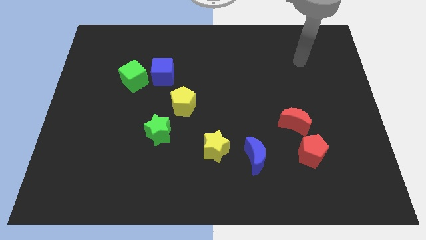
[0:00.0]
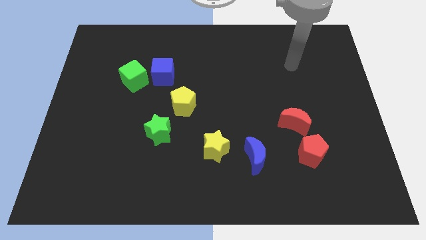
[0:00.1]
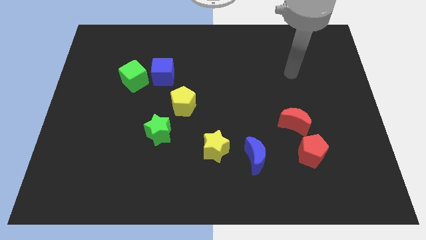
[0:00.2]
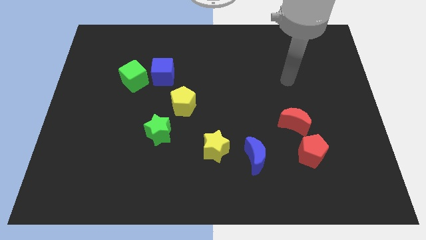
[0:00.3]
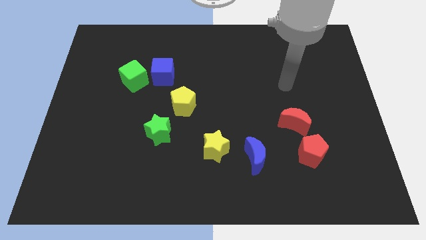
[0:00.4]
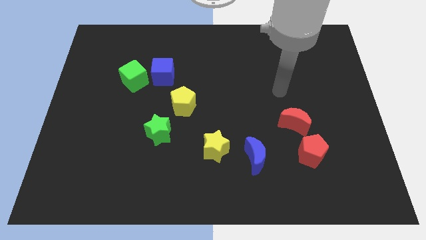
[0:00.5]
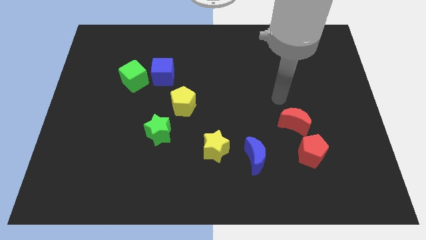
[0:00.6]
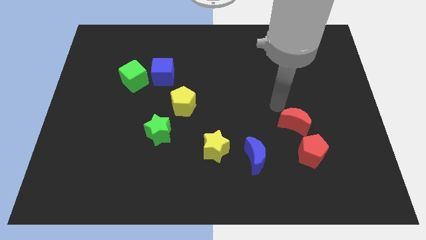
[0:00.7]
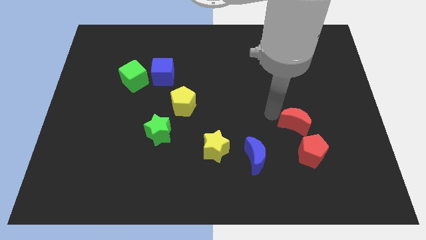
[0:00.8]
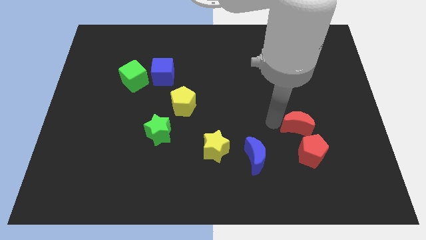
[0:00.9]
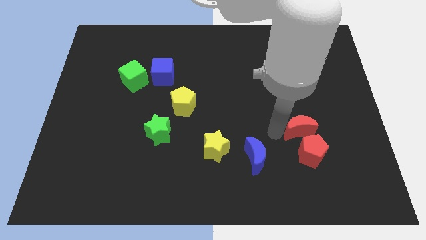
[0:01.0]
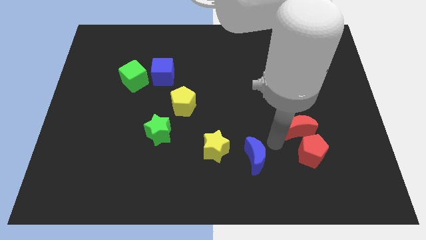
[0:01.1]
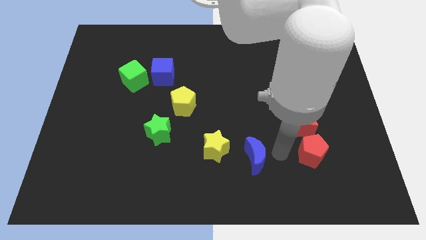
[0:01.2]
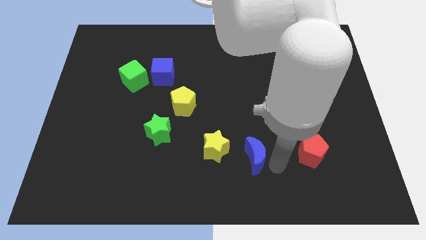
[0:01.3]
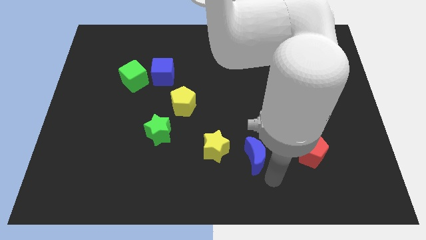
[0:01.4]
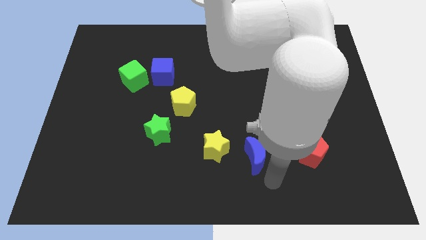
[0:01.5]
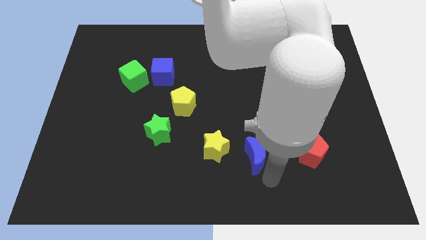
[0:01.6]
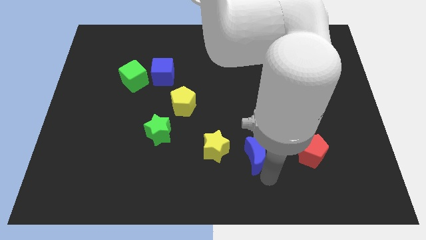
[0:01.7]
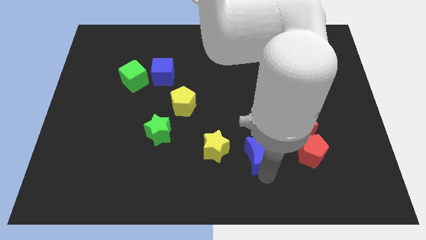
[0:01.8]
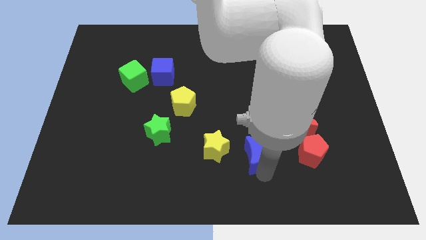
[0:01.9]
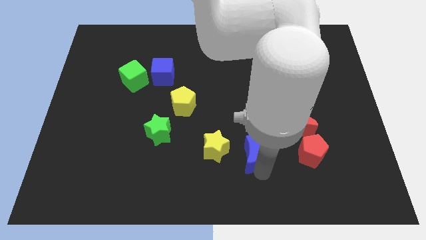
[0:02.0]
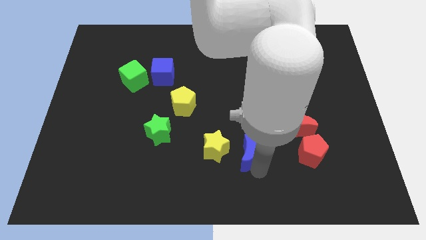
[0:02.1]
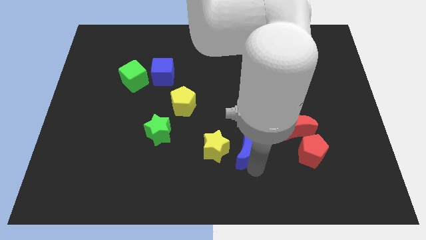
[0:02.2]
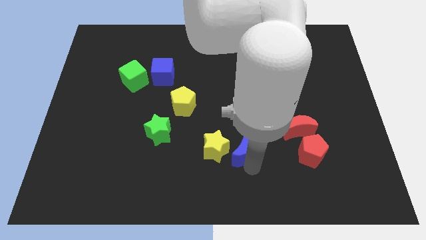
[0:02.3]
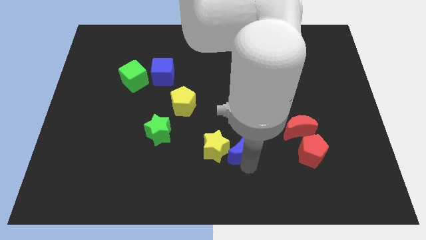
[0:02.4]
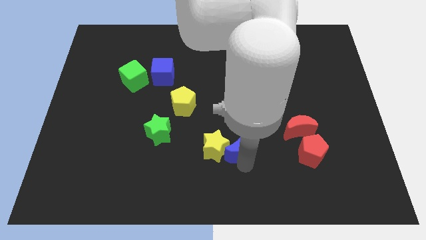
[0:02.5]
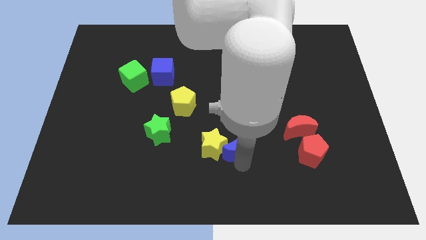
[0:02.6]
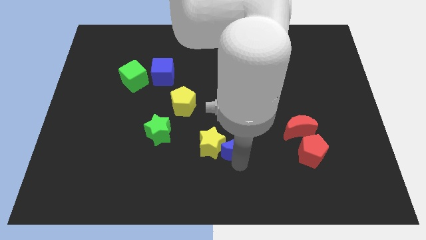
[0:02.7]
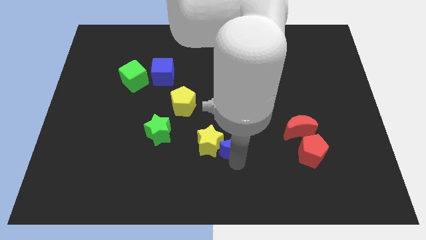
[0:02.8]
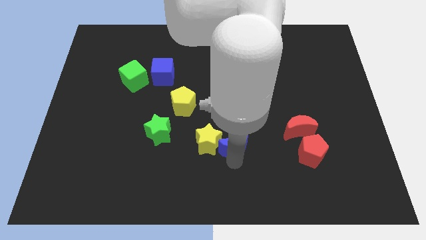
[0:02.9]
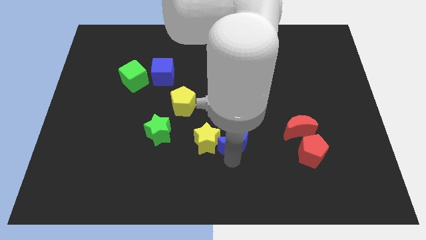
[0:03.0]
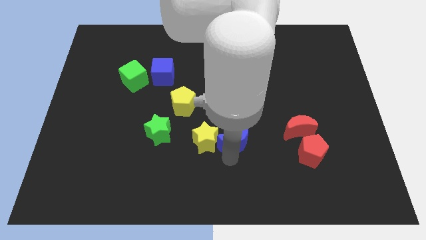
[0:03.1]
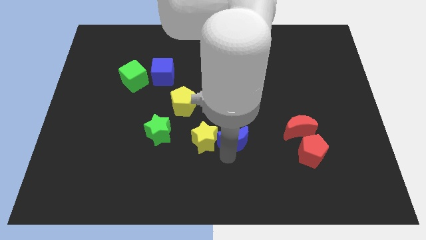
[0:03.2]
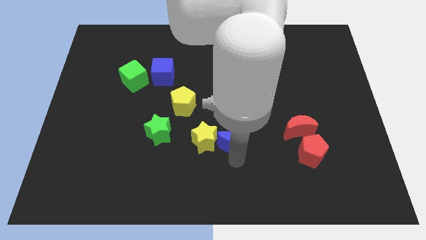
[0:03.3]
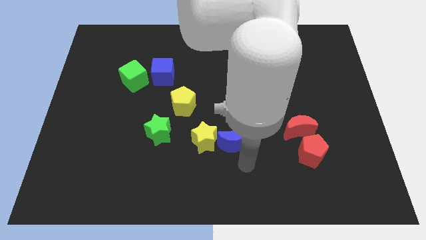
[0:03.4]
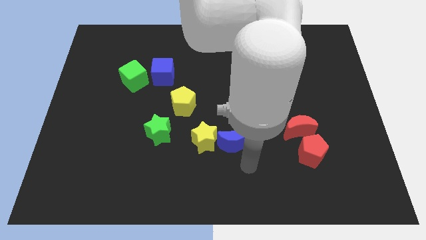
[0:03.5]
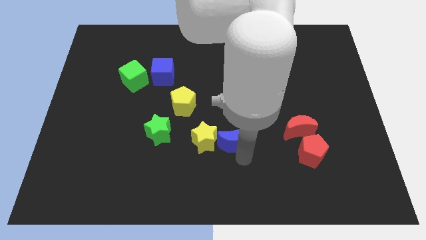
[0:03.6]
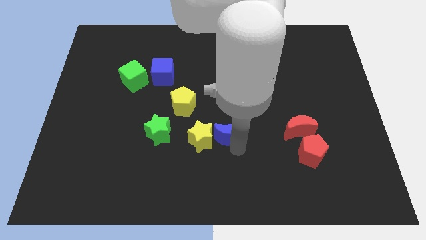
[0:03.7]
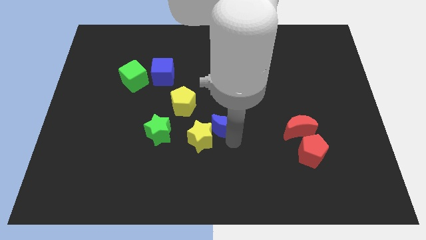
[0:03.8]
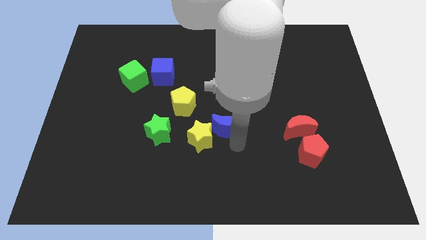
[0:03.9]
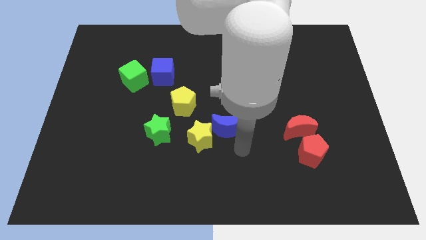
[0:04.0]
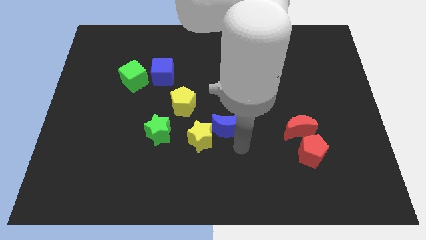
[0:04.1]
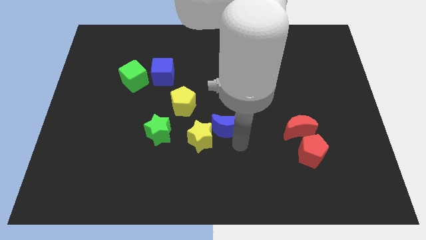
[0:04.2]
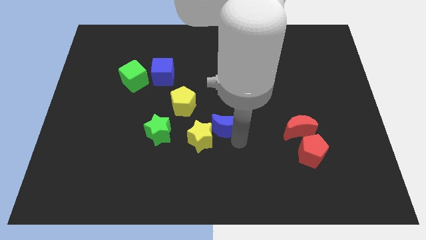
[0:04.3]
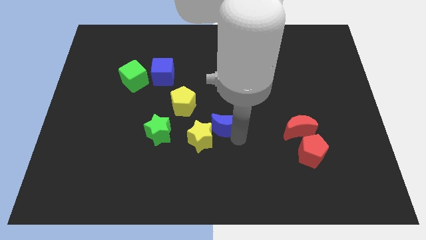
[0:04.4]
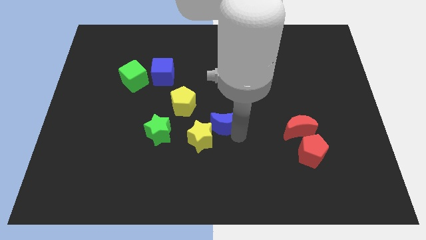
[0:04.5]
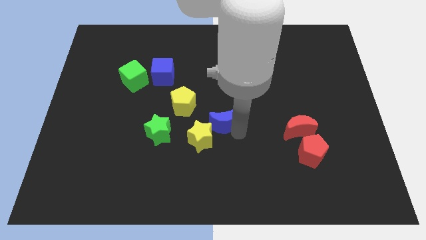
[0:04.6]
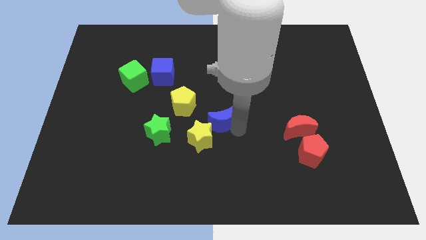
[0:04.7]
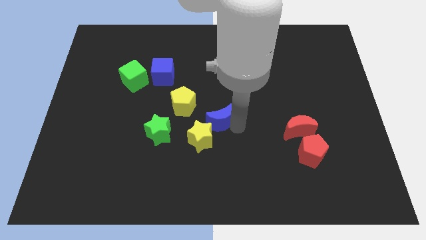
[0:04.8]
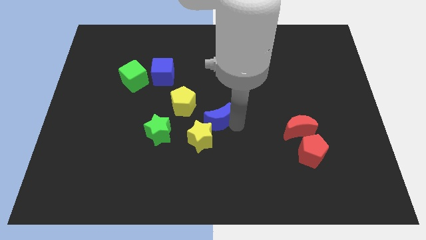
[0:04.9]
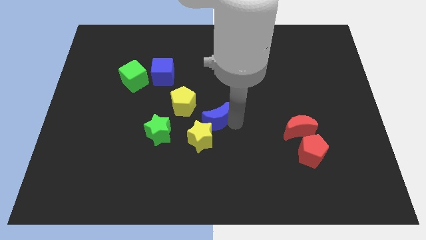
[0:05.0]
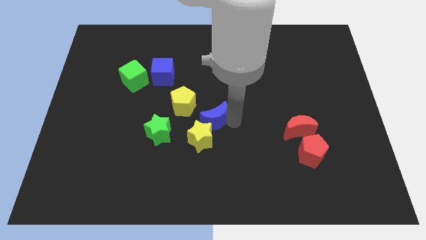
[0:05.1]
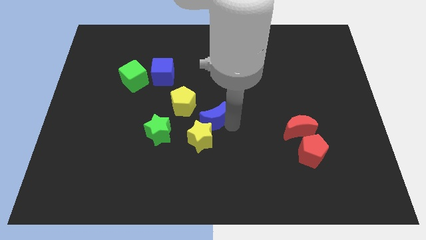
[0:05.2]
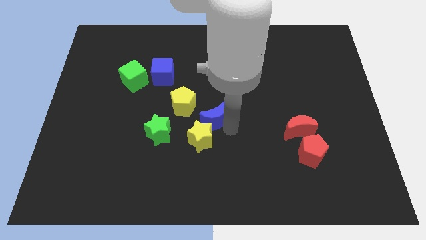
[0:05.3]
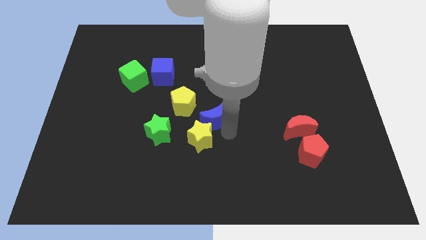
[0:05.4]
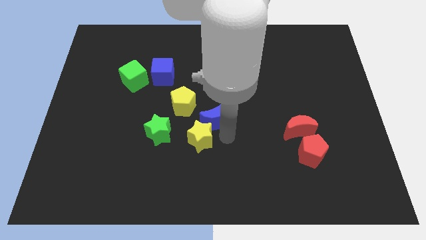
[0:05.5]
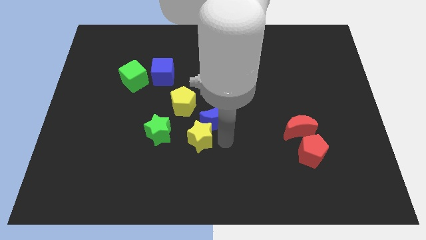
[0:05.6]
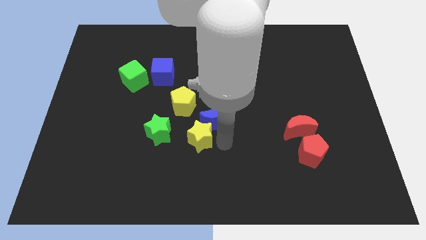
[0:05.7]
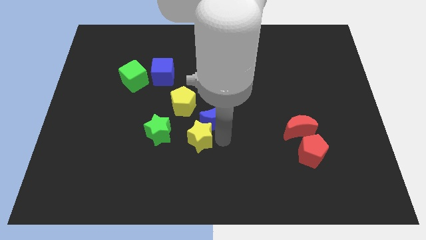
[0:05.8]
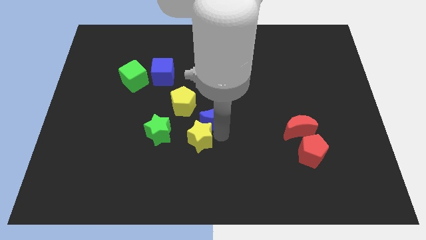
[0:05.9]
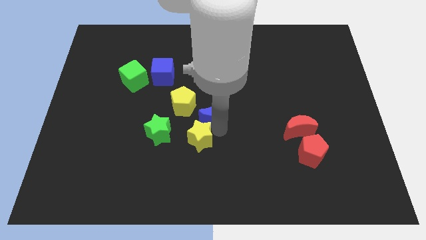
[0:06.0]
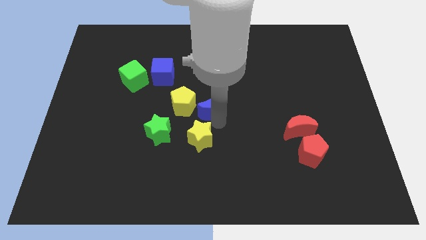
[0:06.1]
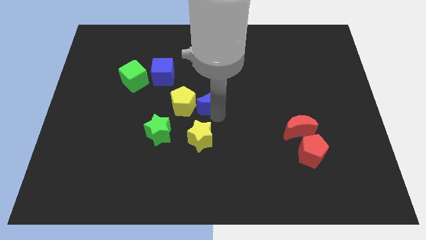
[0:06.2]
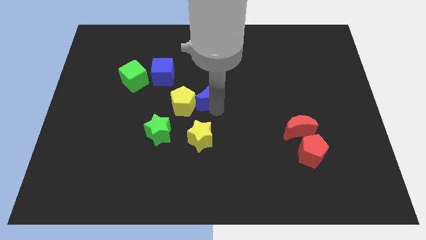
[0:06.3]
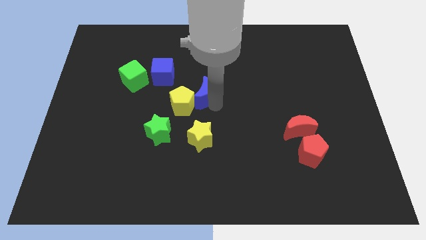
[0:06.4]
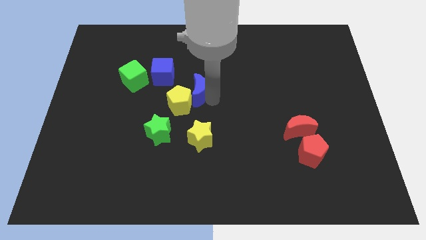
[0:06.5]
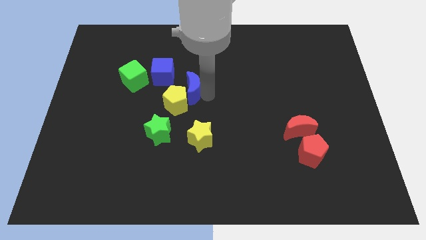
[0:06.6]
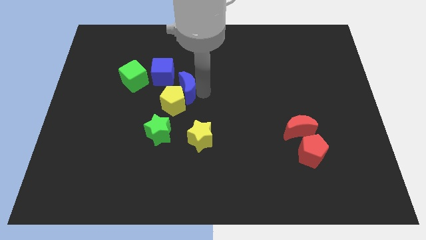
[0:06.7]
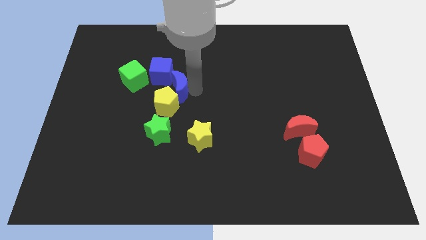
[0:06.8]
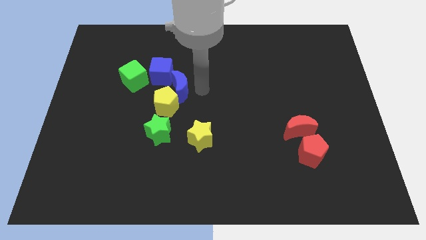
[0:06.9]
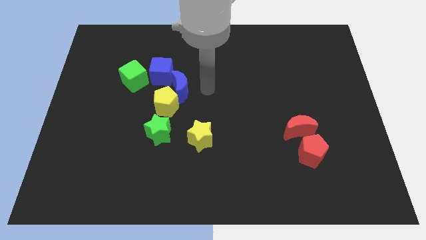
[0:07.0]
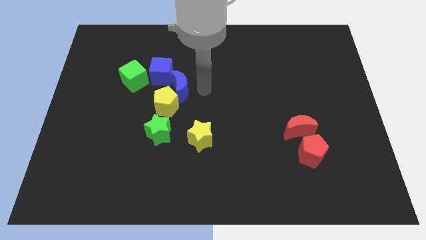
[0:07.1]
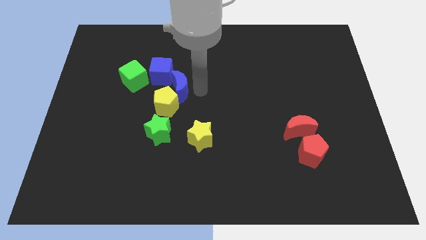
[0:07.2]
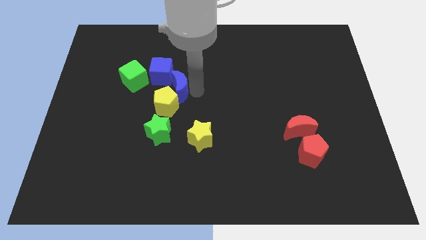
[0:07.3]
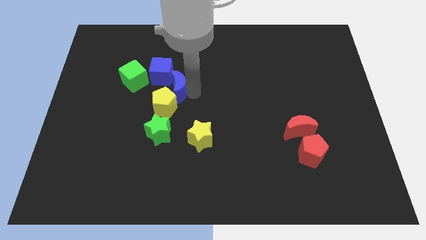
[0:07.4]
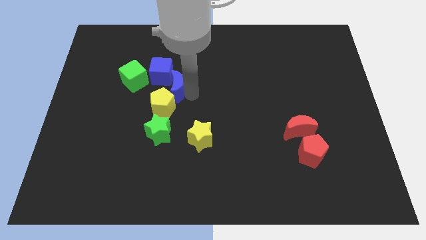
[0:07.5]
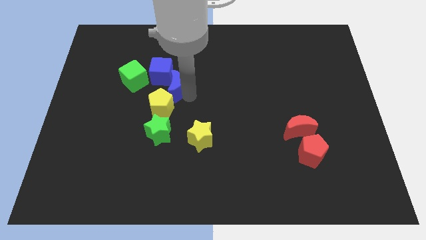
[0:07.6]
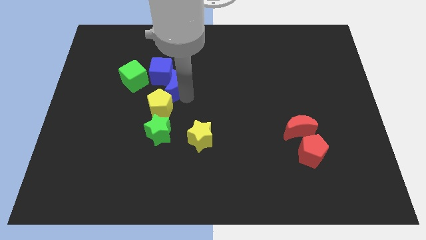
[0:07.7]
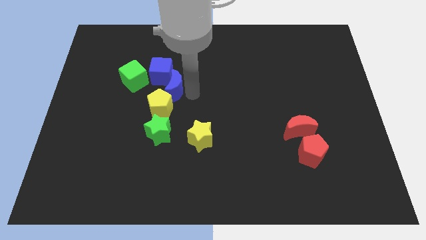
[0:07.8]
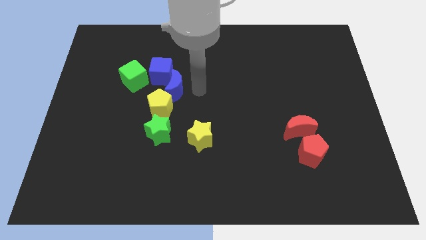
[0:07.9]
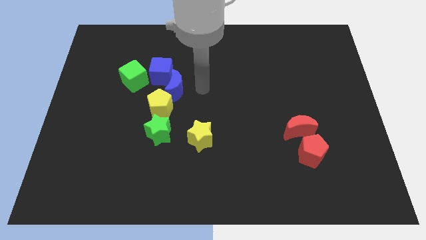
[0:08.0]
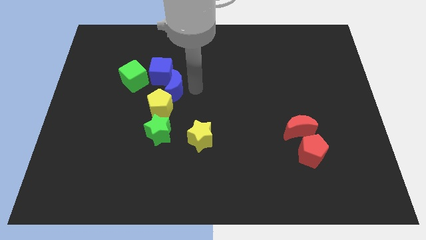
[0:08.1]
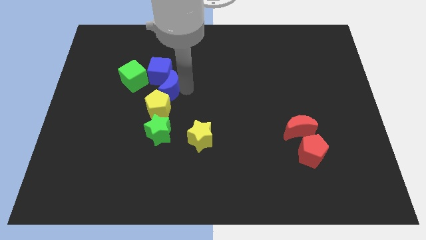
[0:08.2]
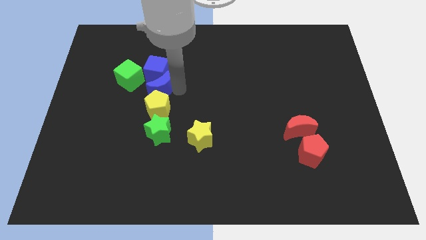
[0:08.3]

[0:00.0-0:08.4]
slide the blue moon diagonally up and to the left of the yellow pentagon
